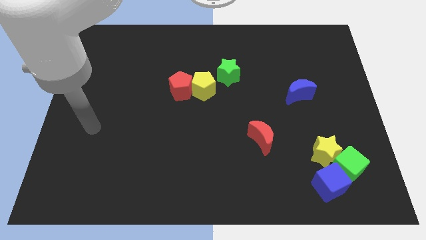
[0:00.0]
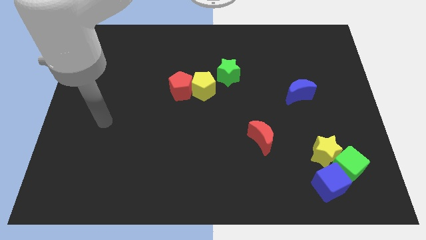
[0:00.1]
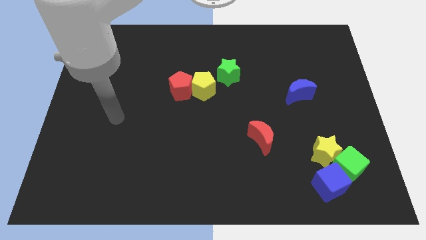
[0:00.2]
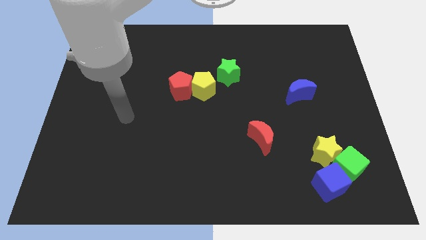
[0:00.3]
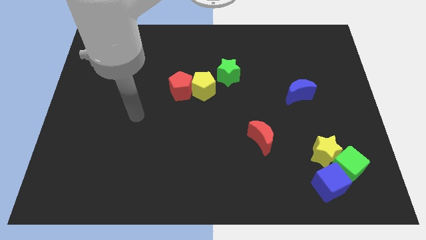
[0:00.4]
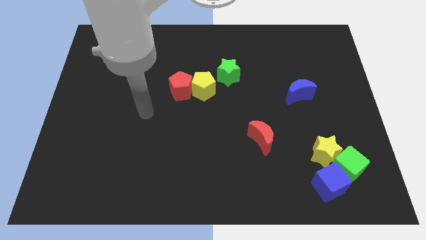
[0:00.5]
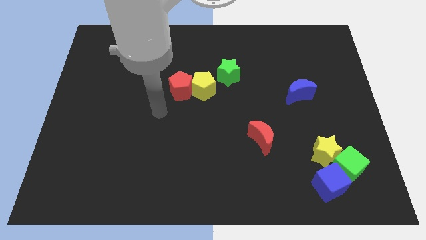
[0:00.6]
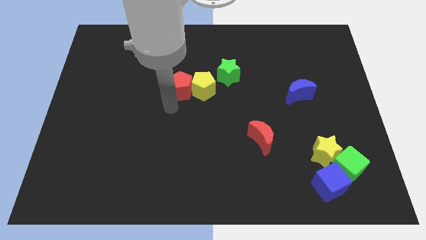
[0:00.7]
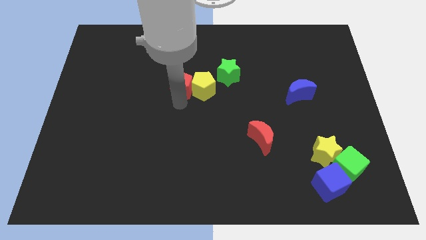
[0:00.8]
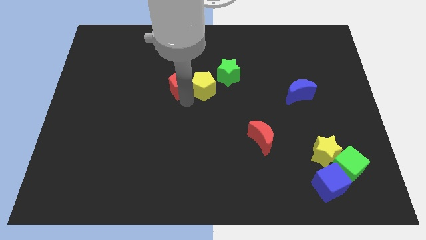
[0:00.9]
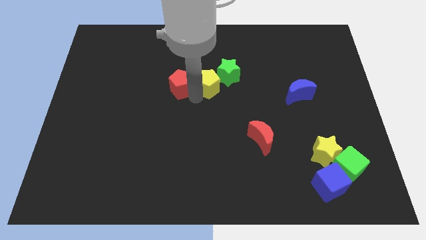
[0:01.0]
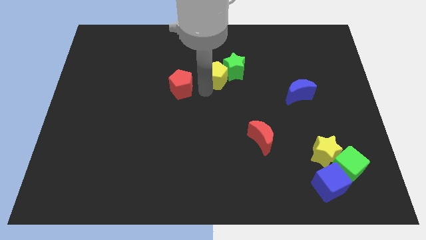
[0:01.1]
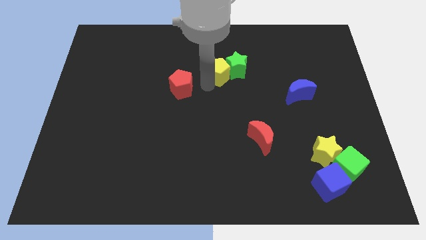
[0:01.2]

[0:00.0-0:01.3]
separate the red pentagon from the yellow pentagon

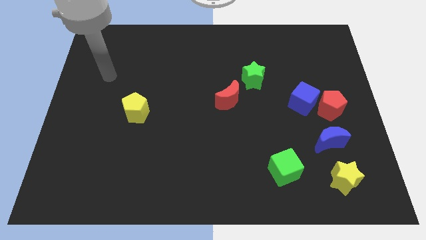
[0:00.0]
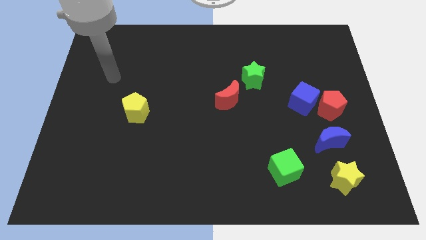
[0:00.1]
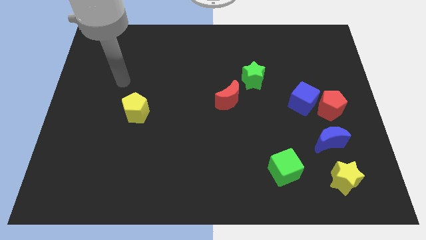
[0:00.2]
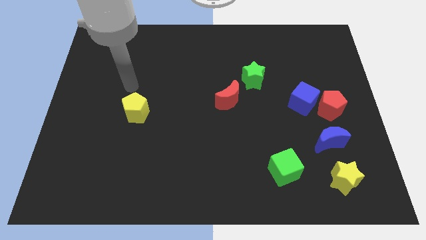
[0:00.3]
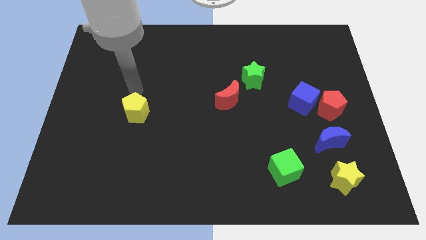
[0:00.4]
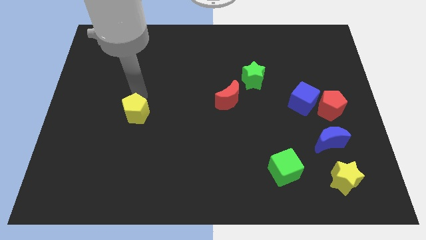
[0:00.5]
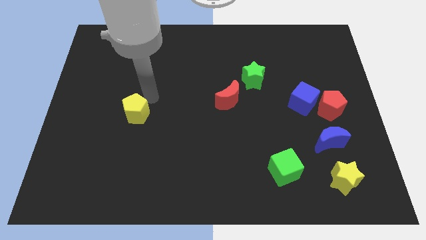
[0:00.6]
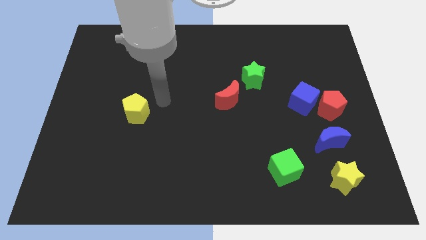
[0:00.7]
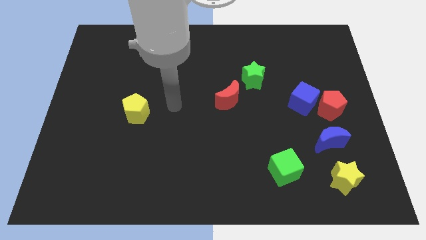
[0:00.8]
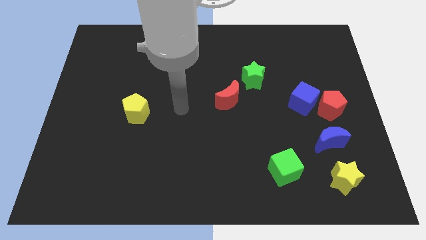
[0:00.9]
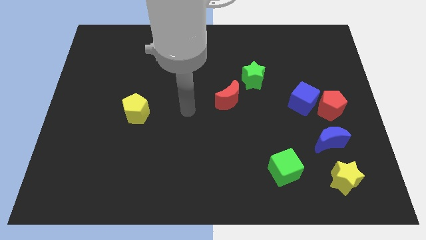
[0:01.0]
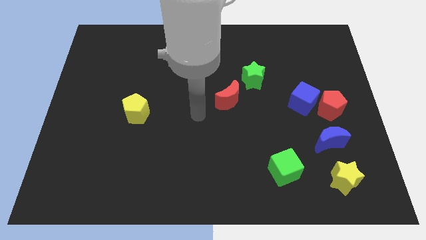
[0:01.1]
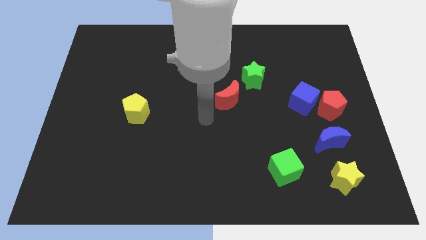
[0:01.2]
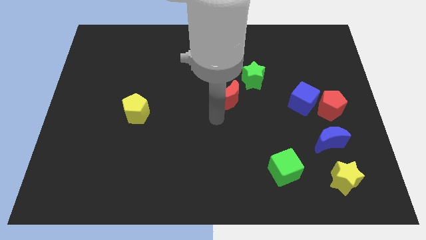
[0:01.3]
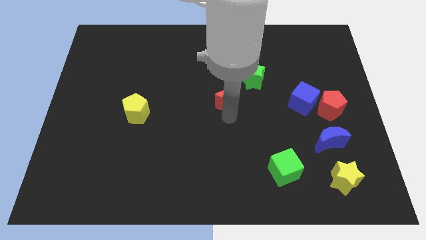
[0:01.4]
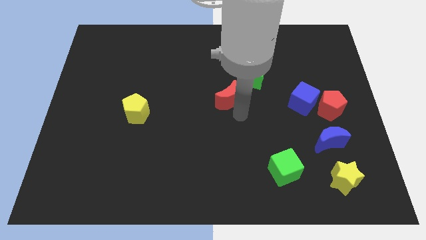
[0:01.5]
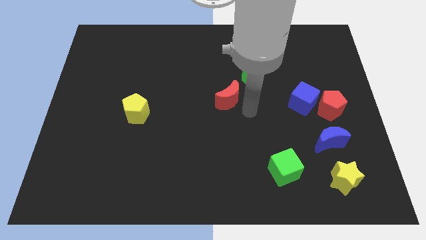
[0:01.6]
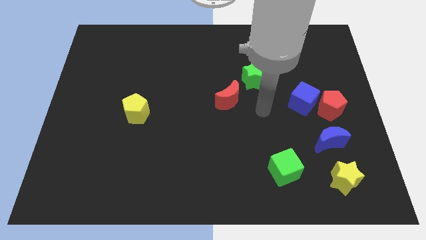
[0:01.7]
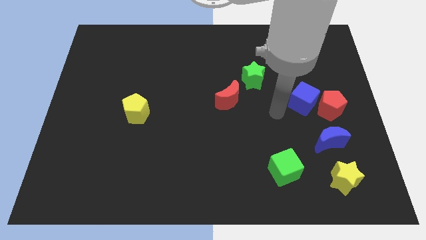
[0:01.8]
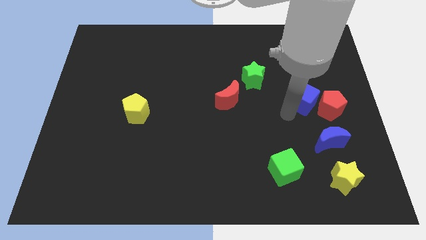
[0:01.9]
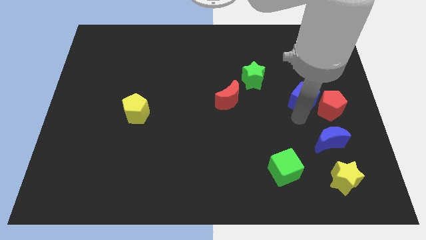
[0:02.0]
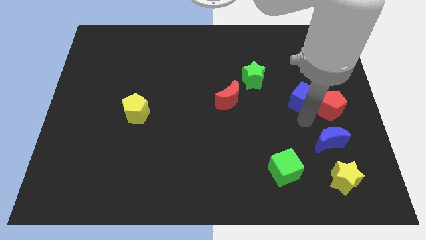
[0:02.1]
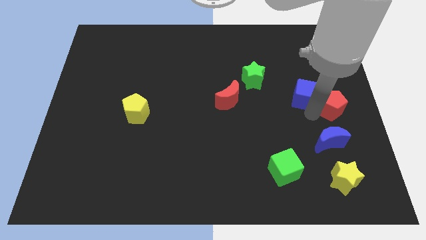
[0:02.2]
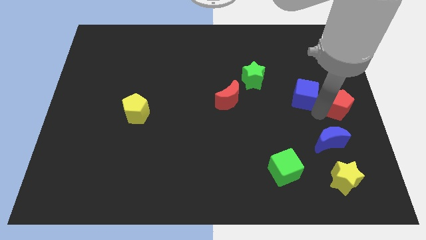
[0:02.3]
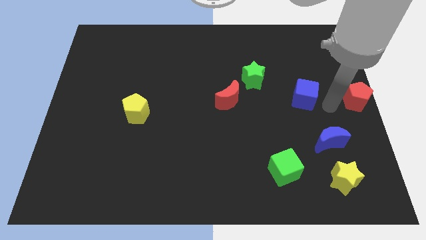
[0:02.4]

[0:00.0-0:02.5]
separate the blue cube from the red pentagon

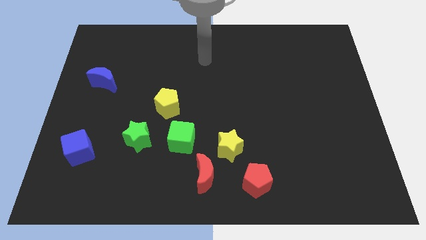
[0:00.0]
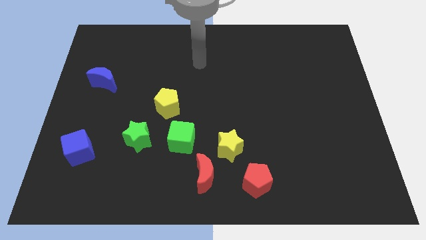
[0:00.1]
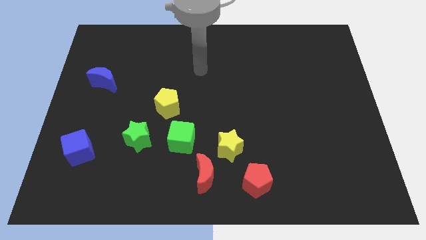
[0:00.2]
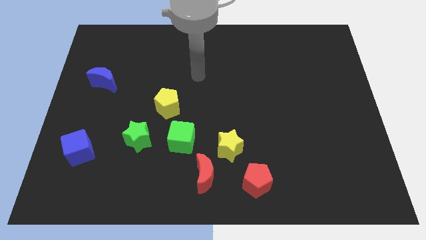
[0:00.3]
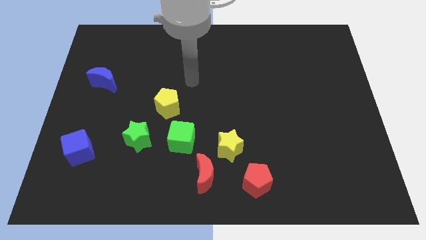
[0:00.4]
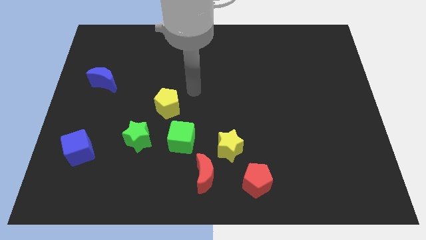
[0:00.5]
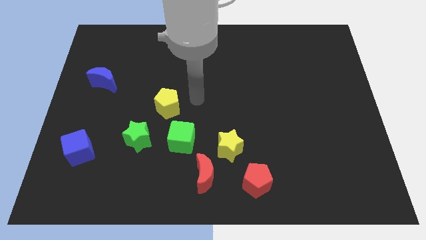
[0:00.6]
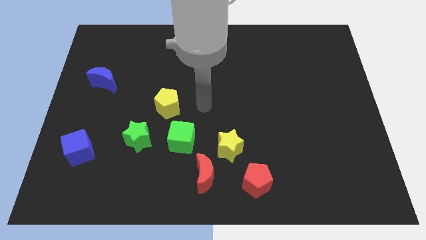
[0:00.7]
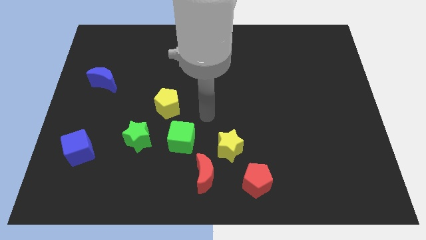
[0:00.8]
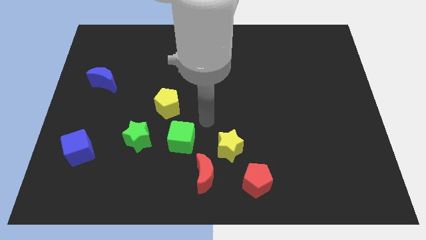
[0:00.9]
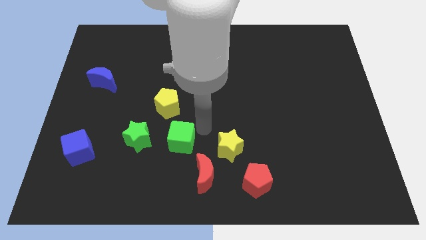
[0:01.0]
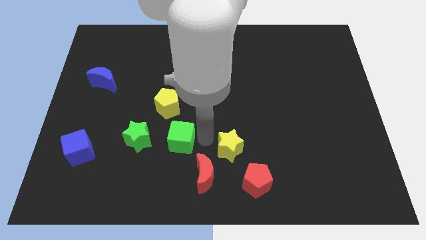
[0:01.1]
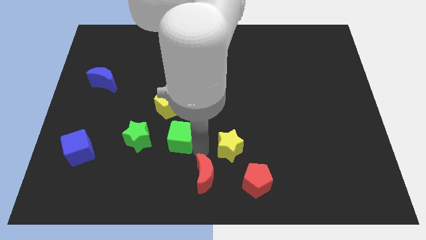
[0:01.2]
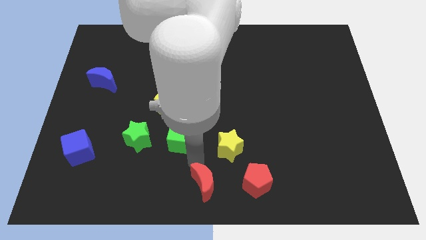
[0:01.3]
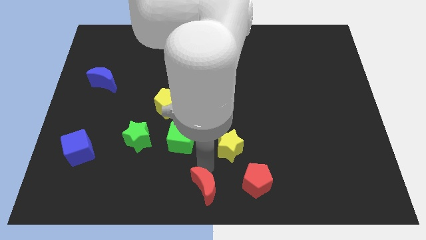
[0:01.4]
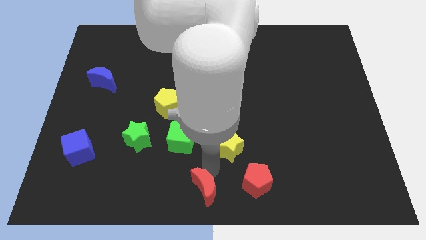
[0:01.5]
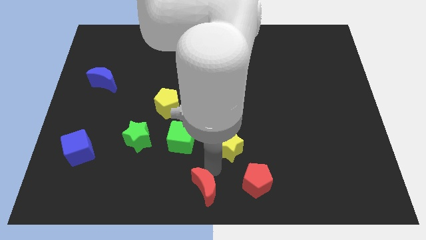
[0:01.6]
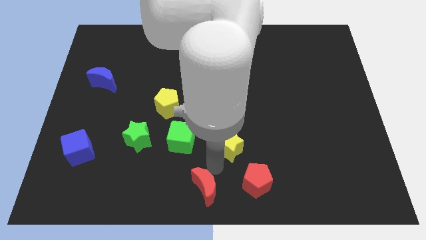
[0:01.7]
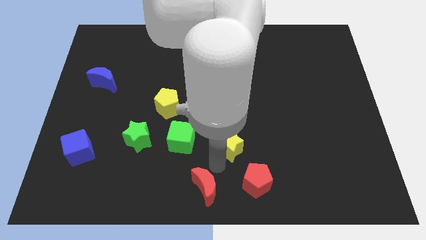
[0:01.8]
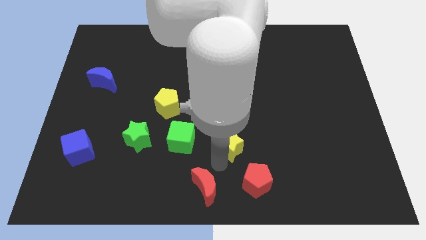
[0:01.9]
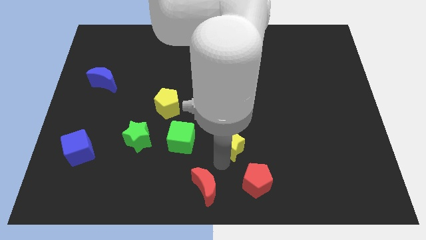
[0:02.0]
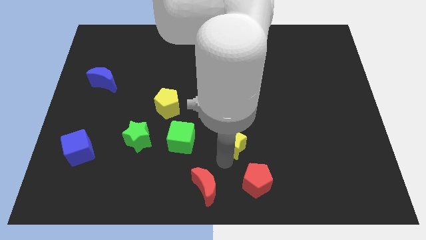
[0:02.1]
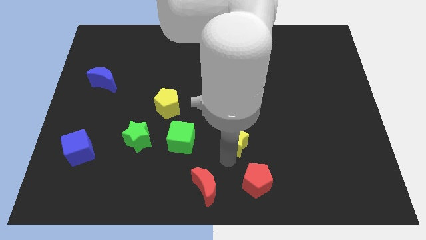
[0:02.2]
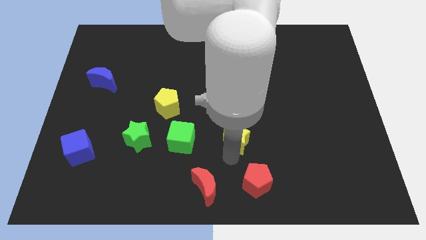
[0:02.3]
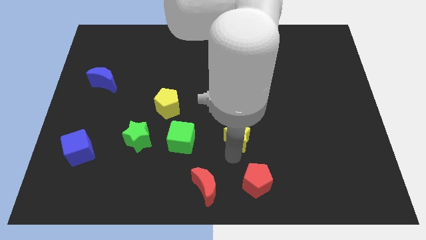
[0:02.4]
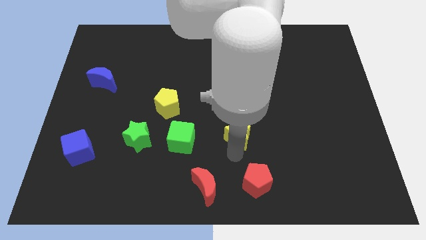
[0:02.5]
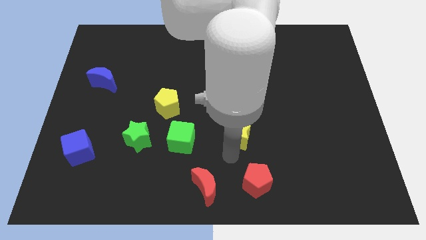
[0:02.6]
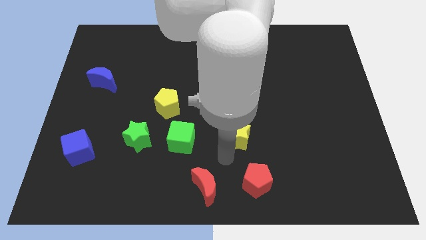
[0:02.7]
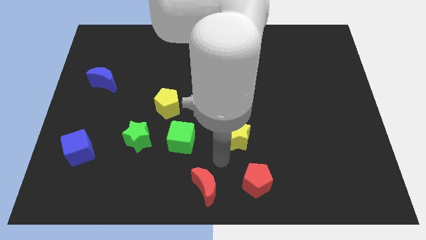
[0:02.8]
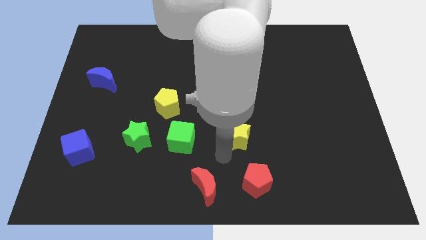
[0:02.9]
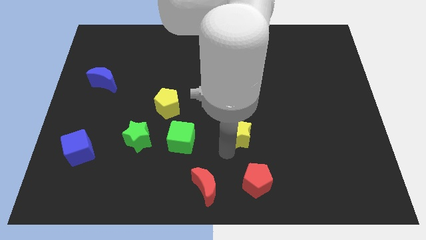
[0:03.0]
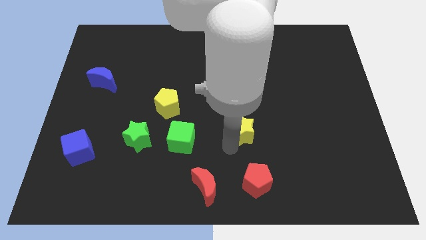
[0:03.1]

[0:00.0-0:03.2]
pull the yellow star apart from the red moon, red pentagon, and green cube

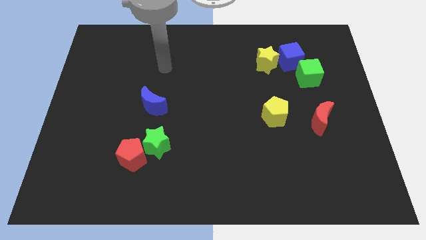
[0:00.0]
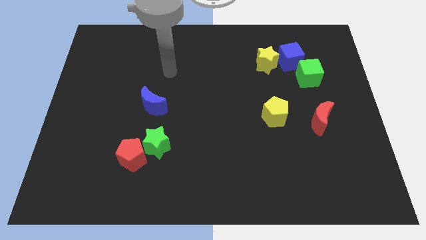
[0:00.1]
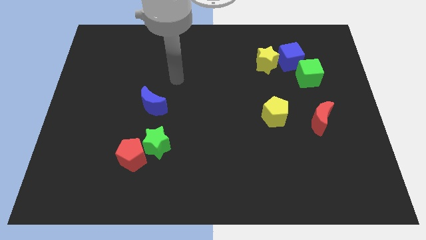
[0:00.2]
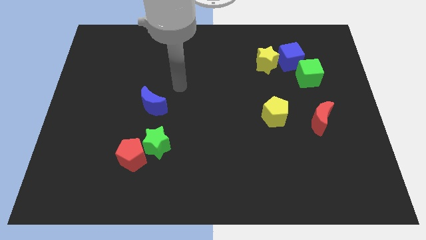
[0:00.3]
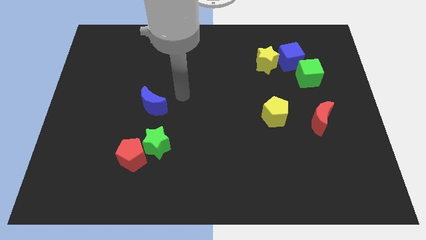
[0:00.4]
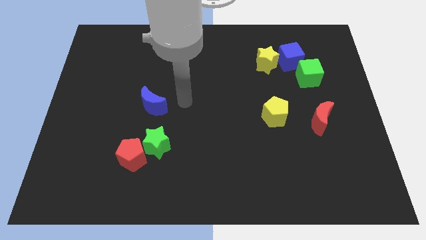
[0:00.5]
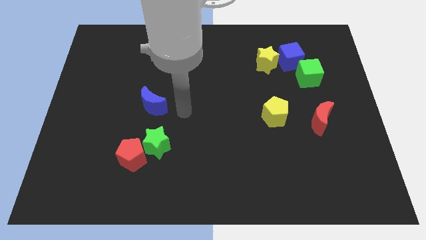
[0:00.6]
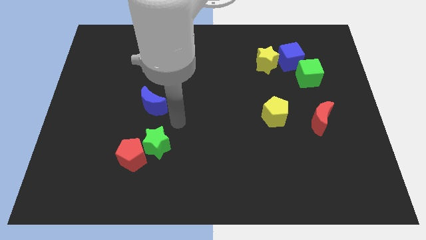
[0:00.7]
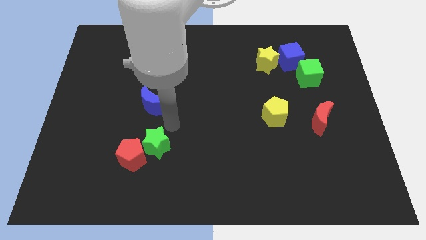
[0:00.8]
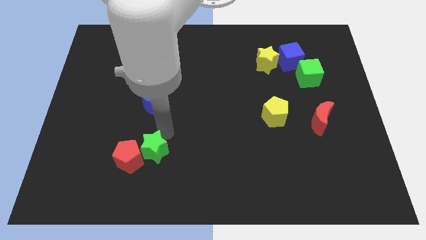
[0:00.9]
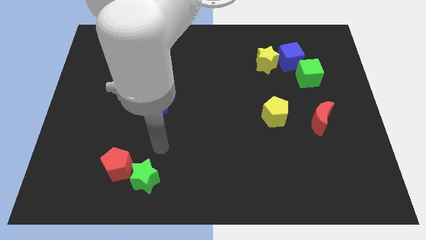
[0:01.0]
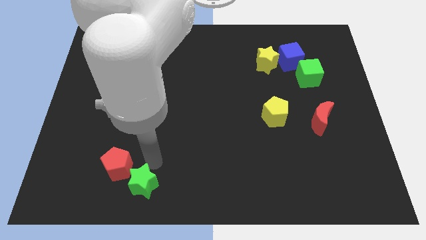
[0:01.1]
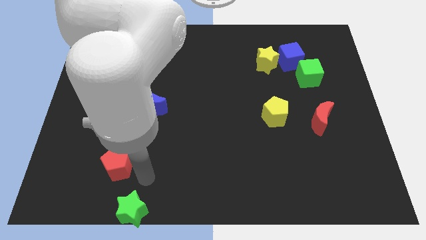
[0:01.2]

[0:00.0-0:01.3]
move the red pentagon away from the green star

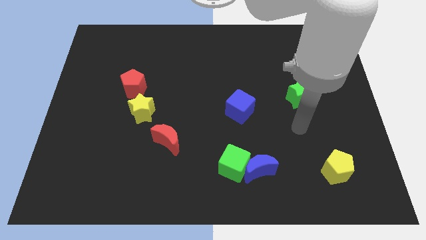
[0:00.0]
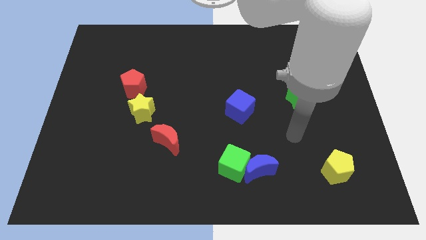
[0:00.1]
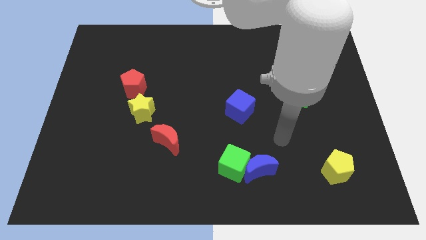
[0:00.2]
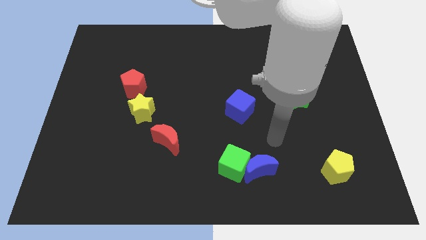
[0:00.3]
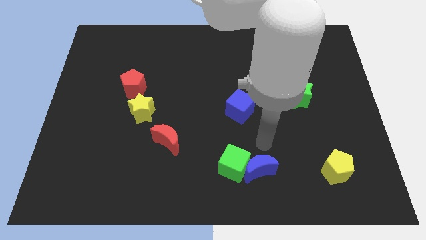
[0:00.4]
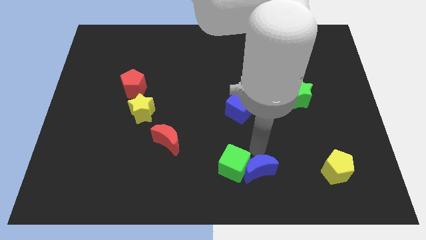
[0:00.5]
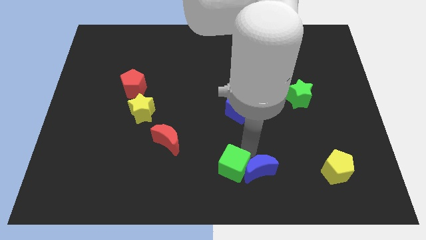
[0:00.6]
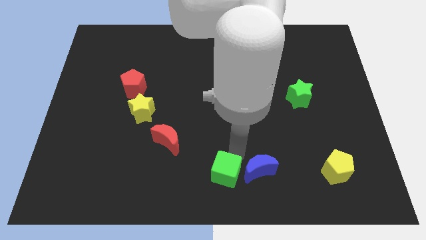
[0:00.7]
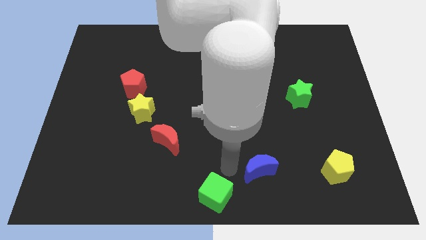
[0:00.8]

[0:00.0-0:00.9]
separate the blue moon from the green cube

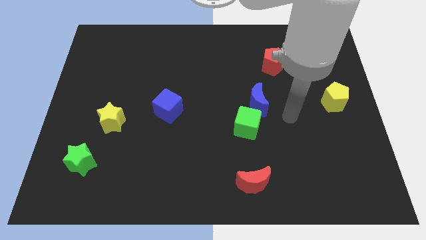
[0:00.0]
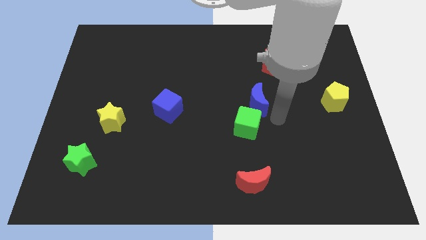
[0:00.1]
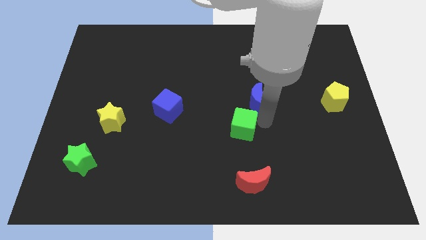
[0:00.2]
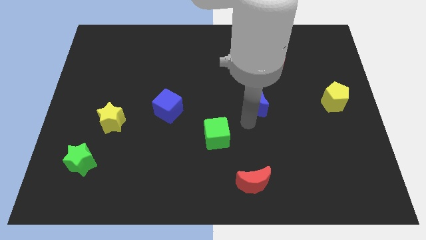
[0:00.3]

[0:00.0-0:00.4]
move the blue moon away from the green cube
